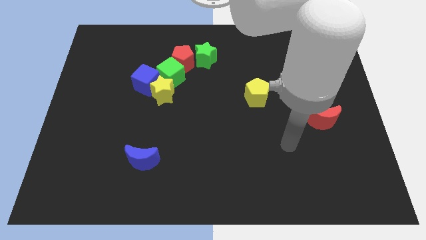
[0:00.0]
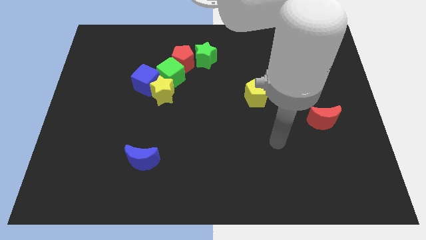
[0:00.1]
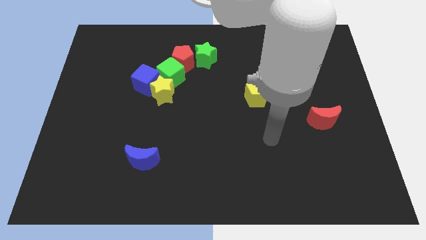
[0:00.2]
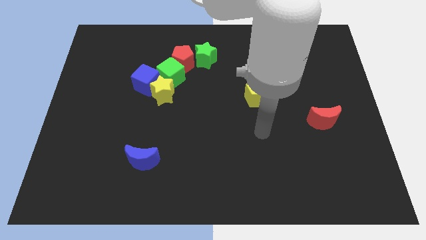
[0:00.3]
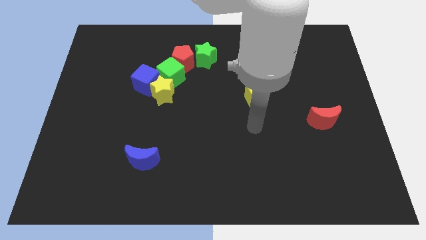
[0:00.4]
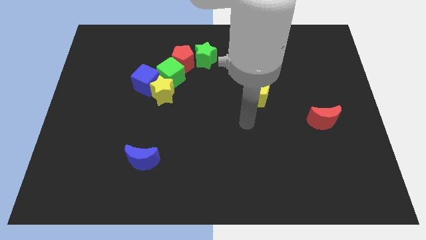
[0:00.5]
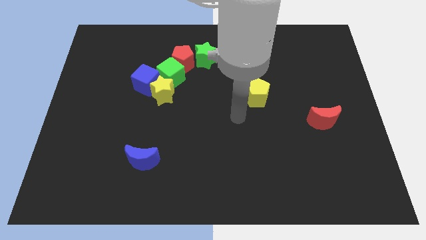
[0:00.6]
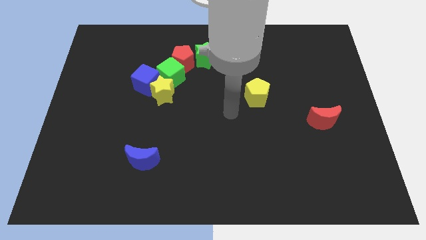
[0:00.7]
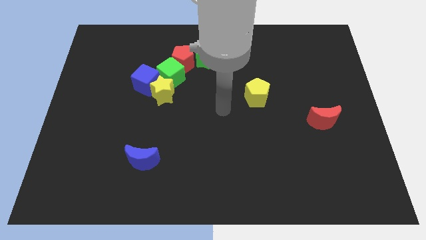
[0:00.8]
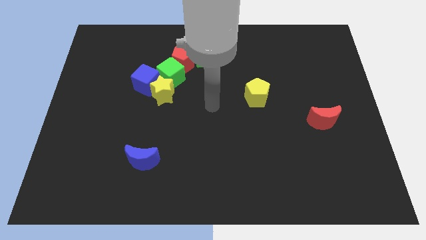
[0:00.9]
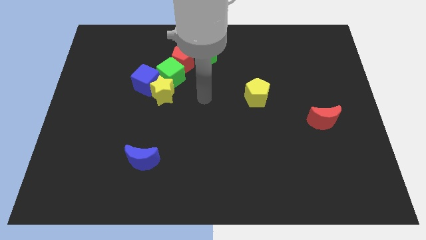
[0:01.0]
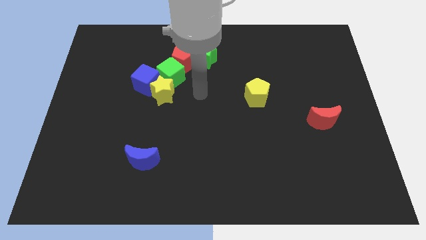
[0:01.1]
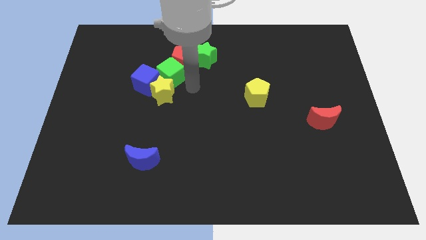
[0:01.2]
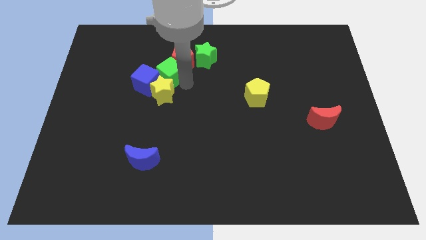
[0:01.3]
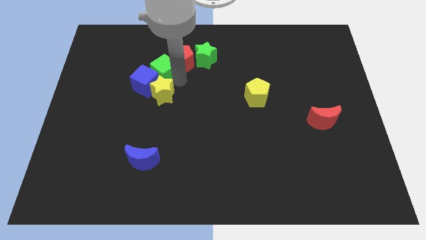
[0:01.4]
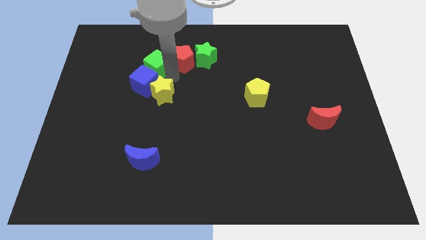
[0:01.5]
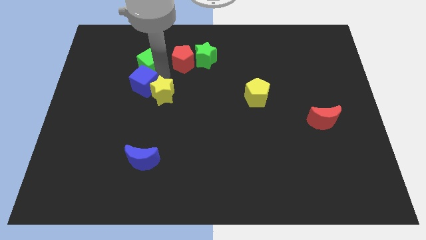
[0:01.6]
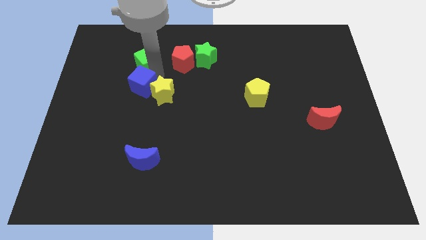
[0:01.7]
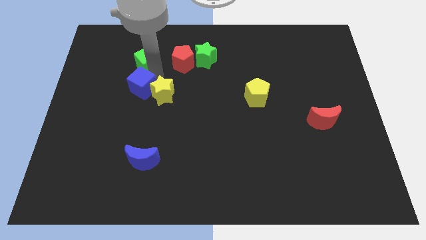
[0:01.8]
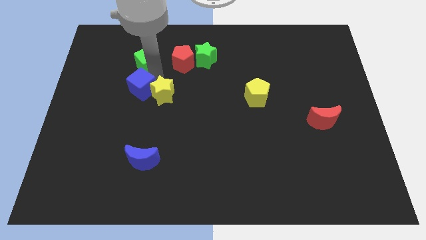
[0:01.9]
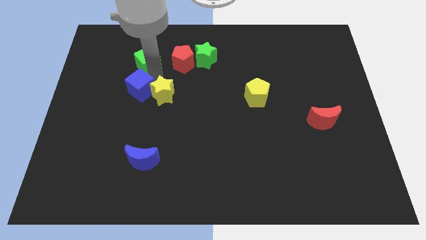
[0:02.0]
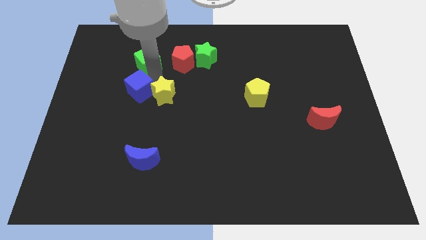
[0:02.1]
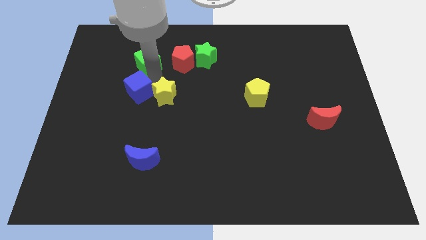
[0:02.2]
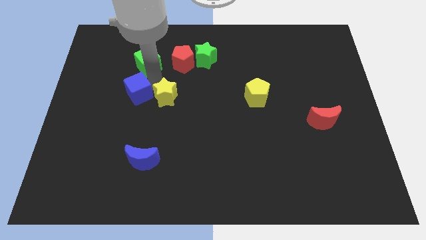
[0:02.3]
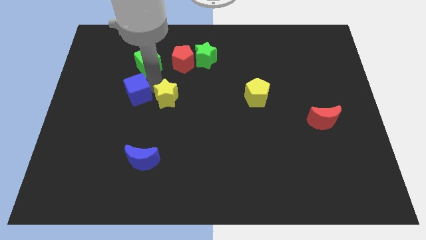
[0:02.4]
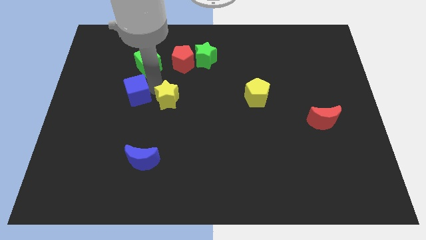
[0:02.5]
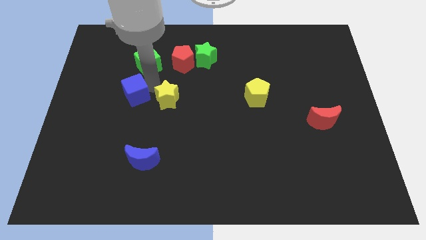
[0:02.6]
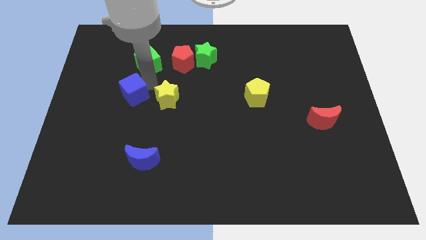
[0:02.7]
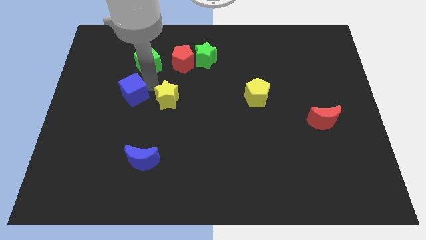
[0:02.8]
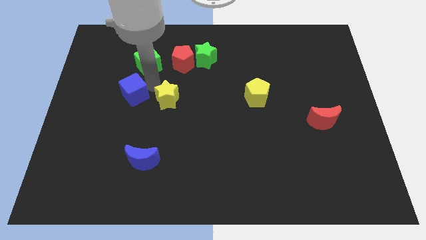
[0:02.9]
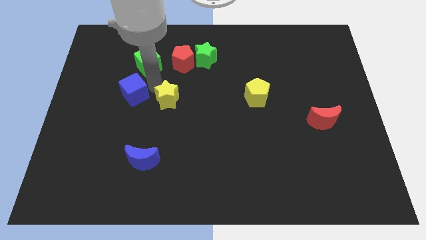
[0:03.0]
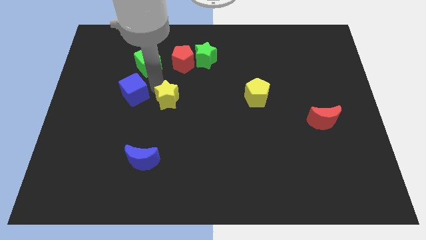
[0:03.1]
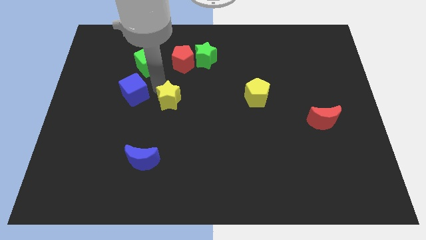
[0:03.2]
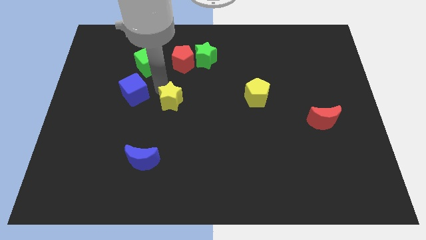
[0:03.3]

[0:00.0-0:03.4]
move the yellow star away from the blue cube and green cube

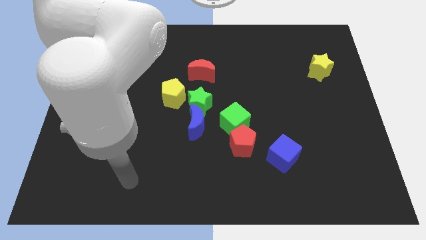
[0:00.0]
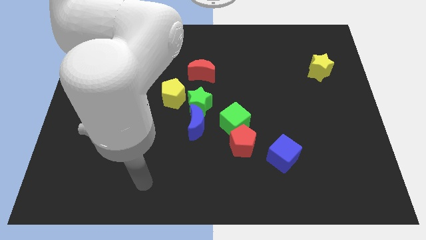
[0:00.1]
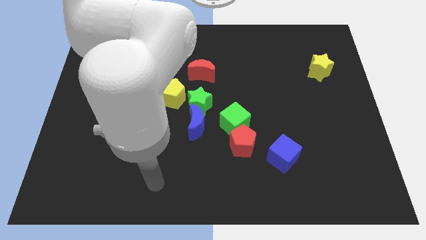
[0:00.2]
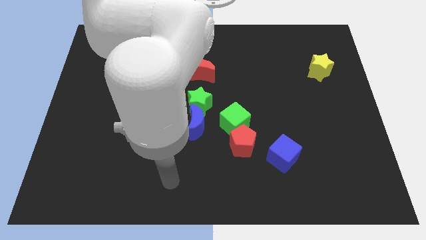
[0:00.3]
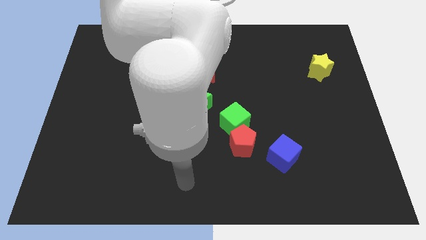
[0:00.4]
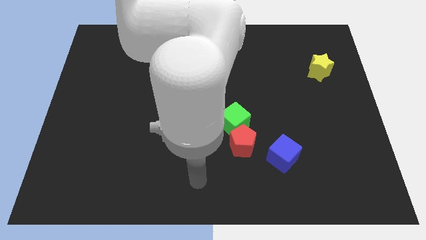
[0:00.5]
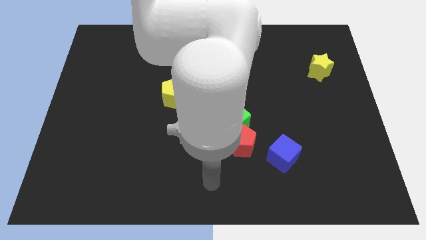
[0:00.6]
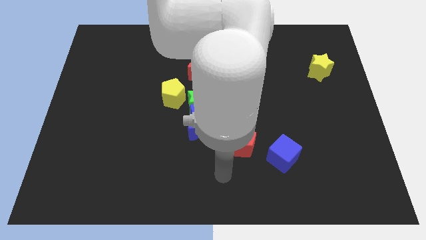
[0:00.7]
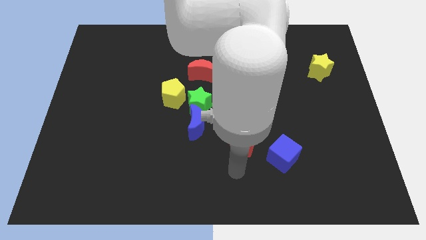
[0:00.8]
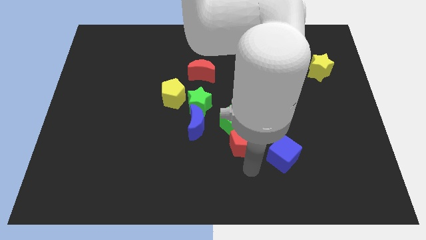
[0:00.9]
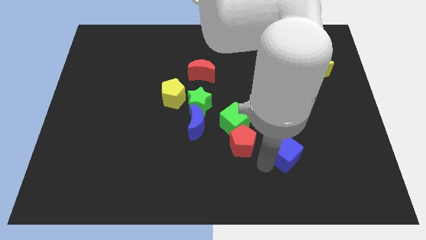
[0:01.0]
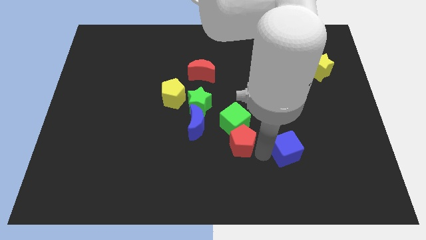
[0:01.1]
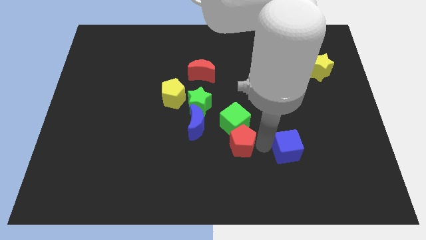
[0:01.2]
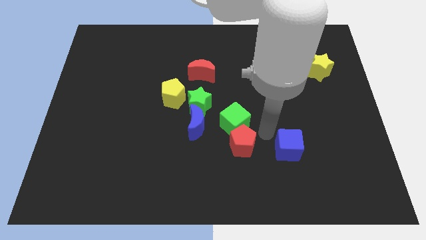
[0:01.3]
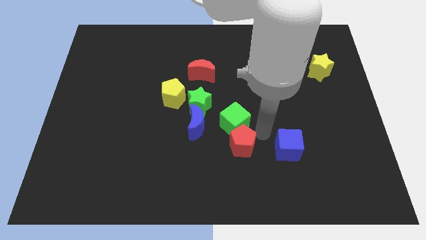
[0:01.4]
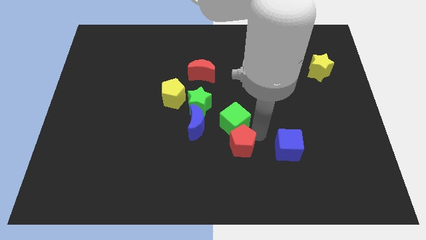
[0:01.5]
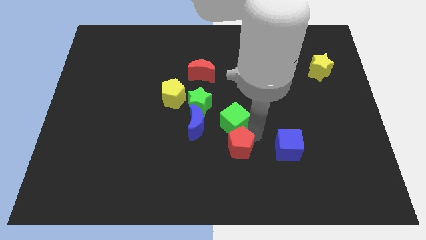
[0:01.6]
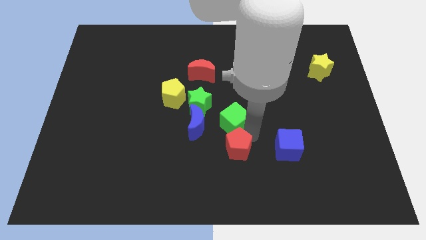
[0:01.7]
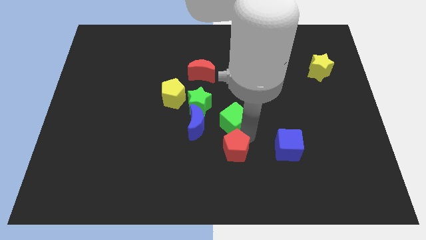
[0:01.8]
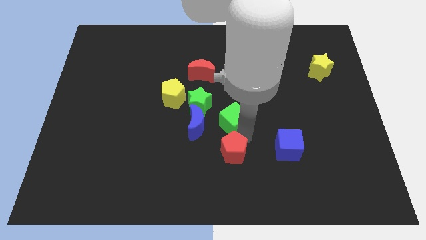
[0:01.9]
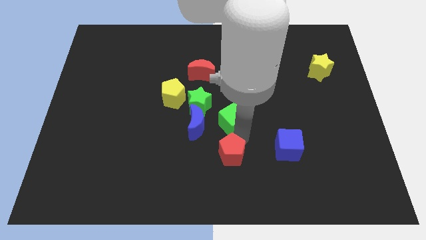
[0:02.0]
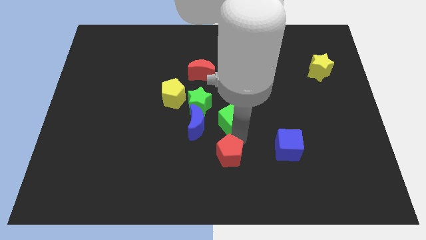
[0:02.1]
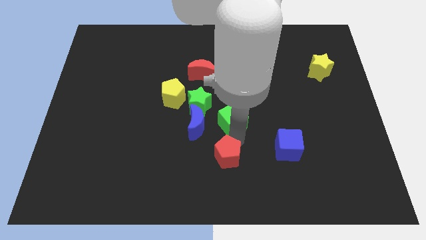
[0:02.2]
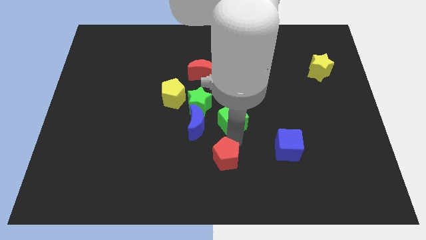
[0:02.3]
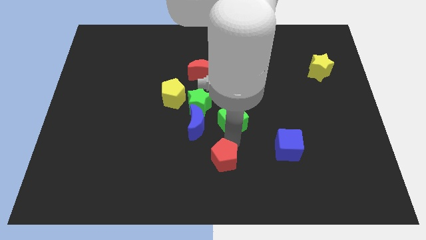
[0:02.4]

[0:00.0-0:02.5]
move the red pentagon away from the green cube and blue cube

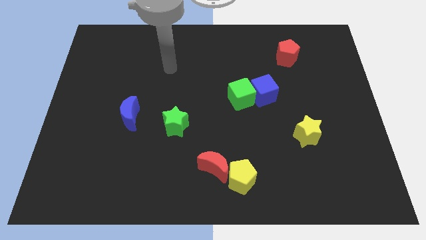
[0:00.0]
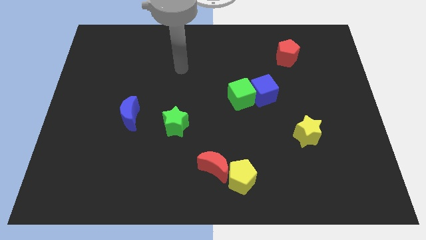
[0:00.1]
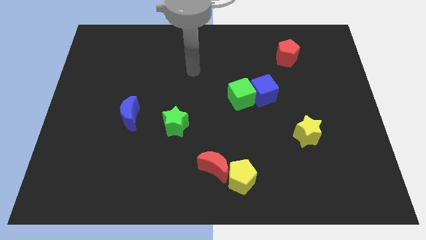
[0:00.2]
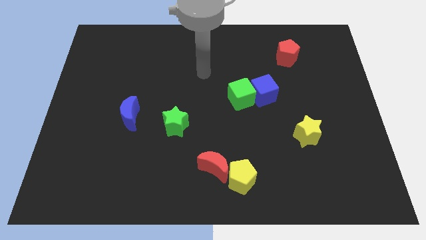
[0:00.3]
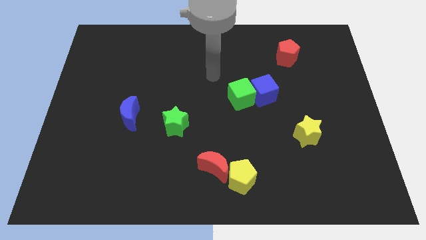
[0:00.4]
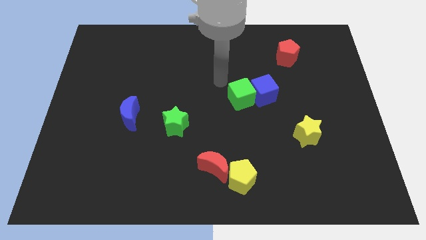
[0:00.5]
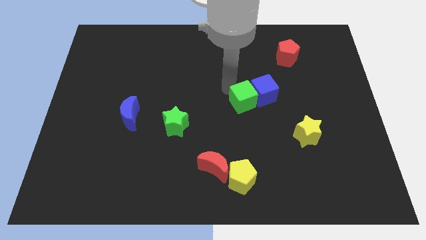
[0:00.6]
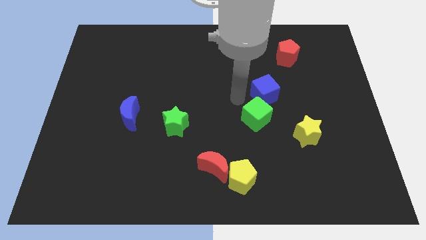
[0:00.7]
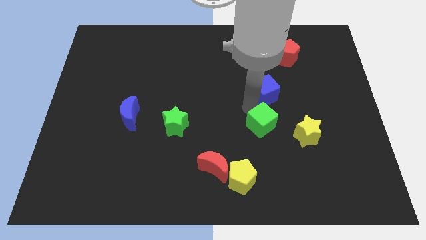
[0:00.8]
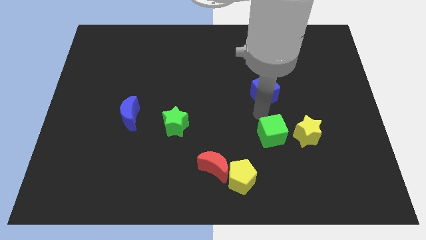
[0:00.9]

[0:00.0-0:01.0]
pull the blue cube apart from the green cube

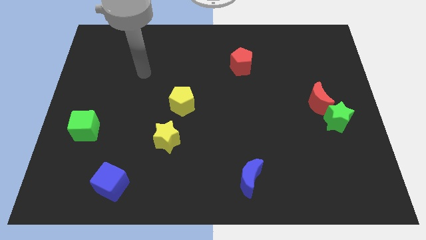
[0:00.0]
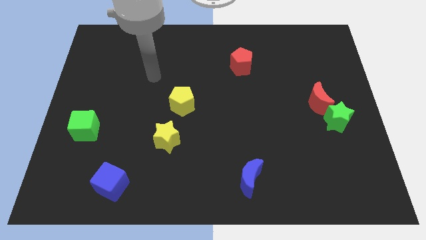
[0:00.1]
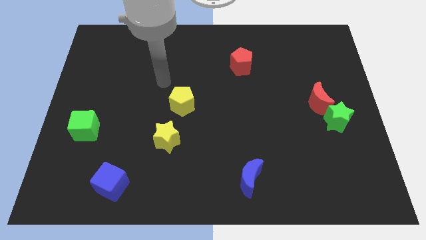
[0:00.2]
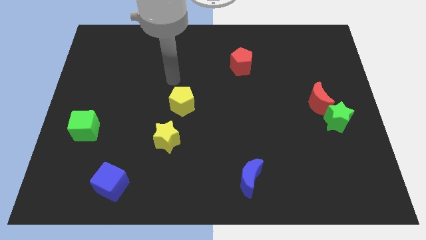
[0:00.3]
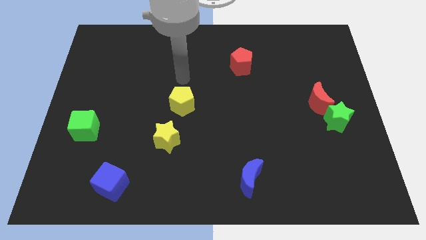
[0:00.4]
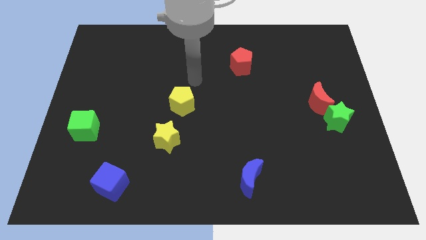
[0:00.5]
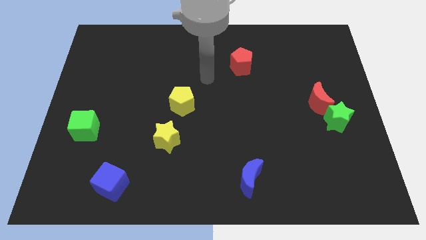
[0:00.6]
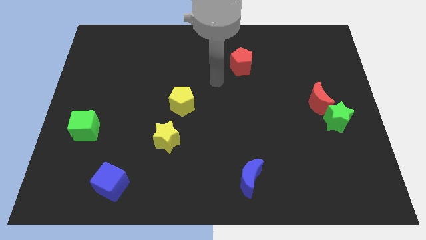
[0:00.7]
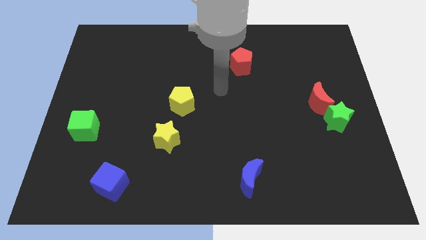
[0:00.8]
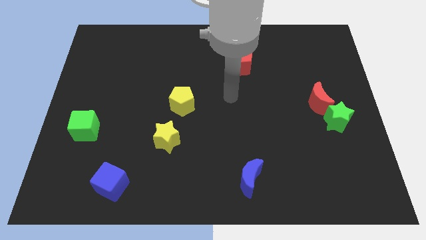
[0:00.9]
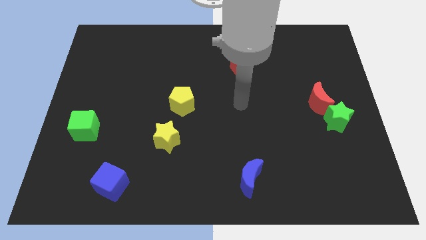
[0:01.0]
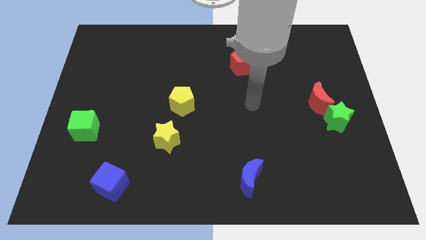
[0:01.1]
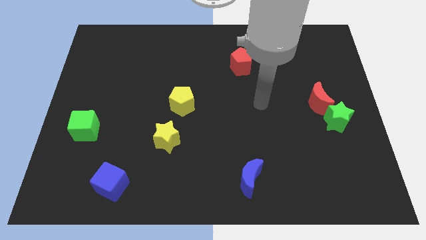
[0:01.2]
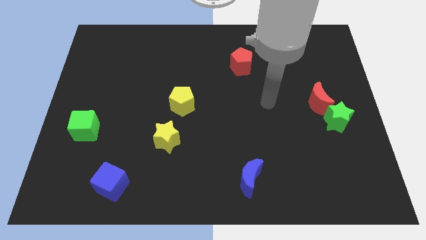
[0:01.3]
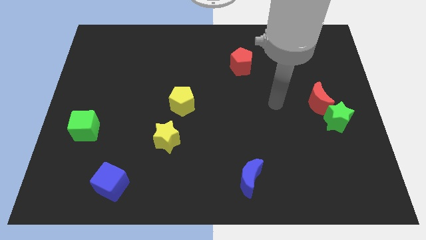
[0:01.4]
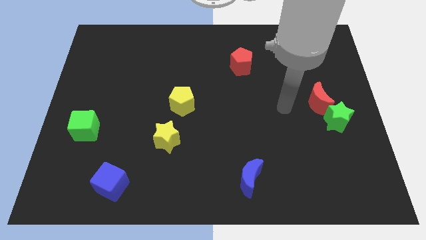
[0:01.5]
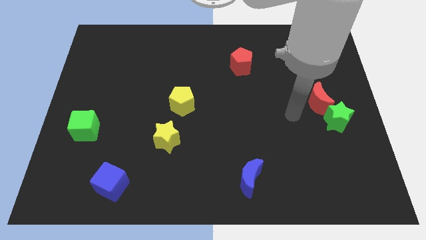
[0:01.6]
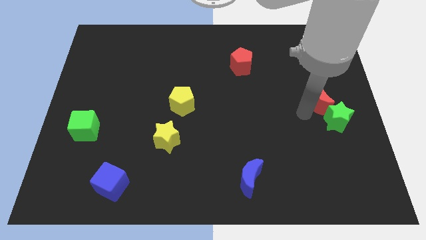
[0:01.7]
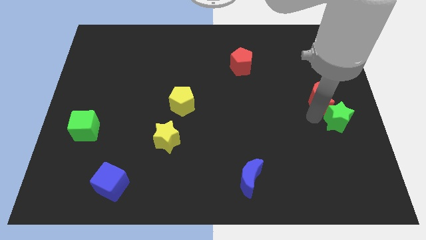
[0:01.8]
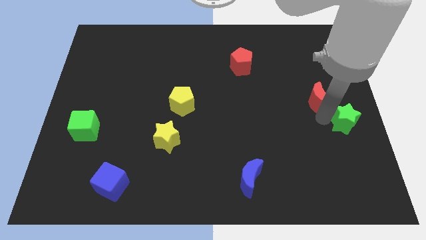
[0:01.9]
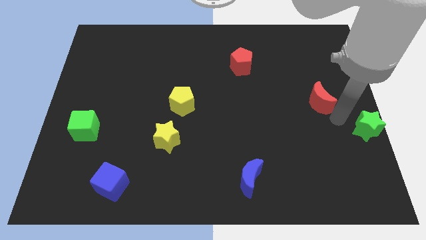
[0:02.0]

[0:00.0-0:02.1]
separate the red moon from the green star

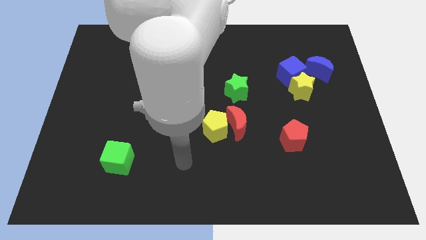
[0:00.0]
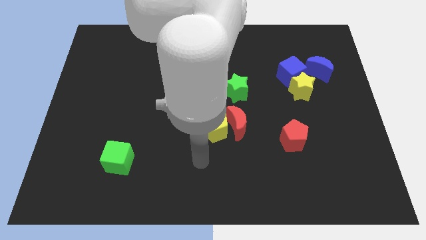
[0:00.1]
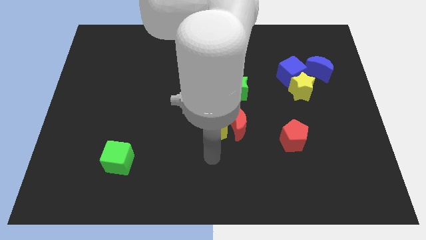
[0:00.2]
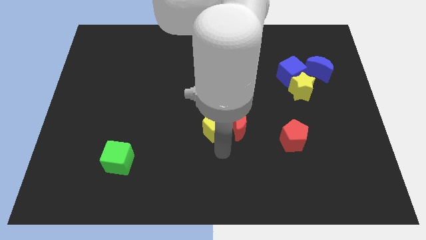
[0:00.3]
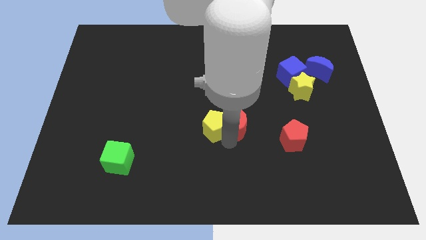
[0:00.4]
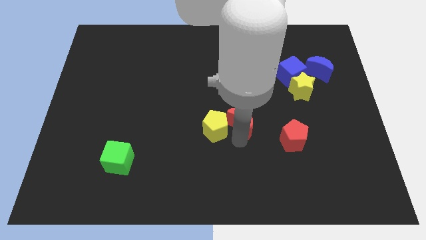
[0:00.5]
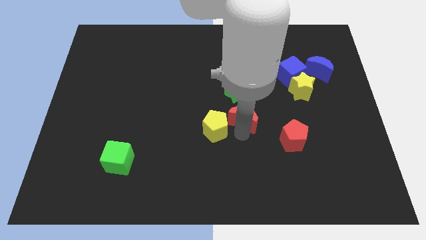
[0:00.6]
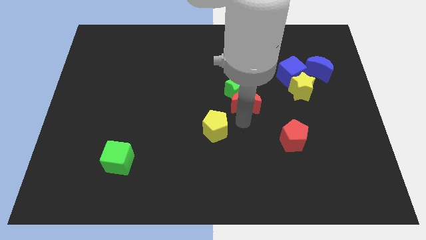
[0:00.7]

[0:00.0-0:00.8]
separate the yellow pentagon from the red moon
